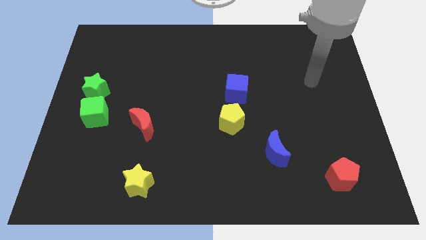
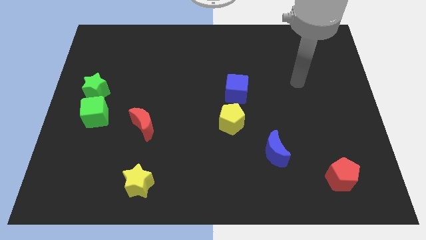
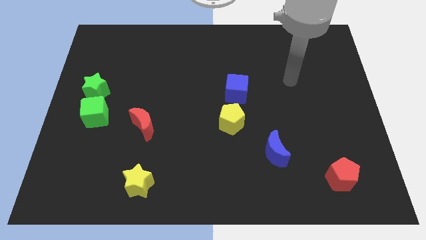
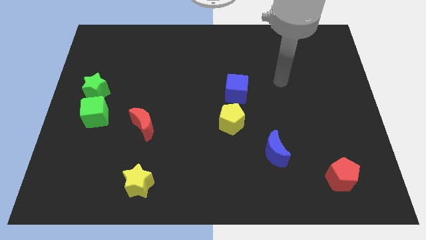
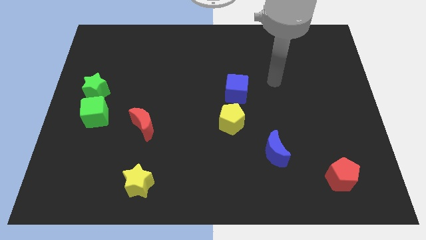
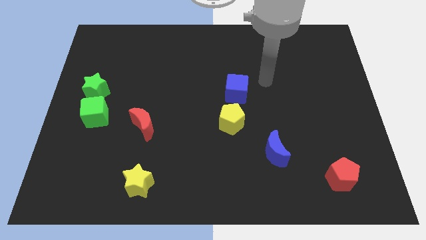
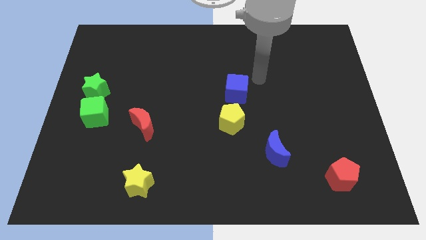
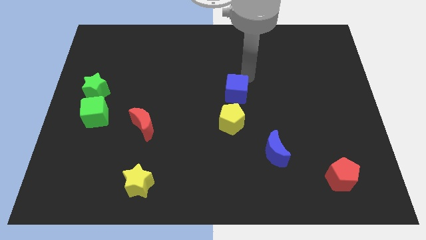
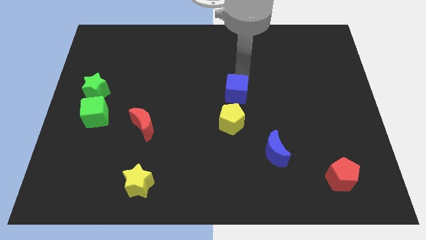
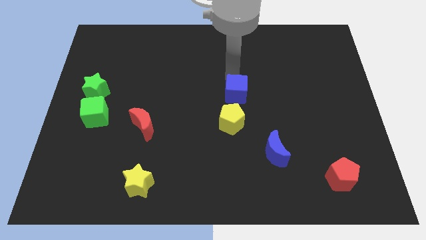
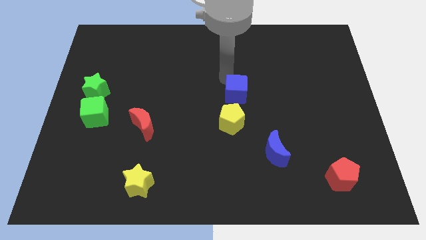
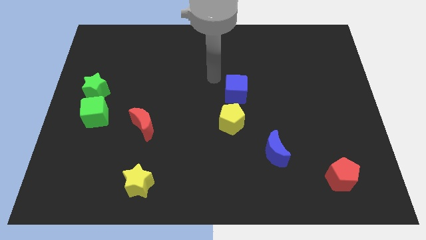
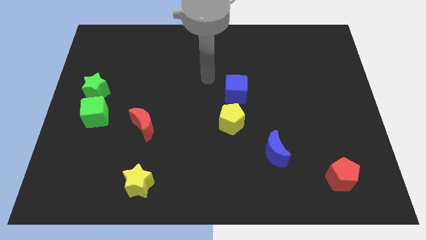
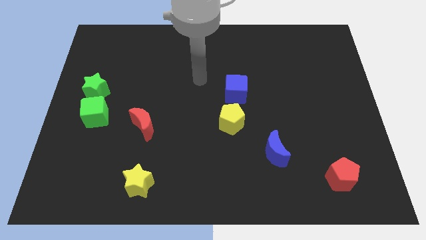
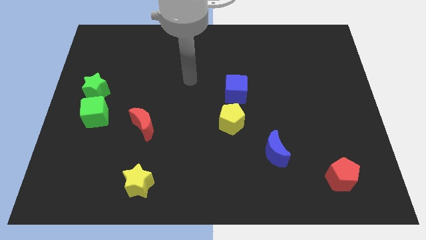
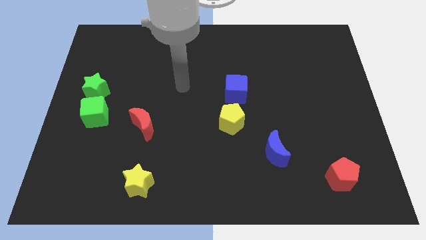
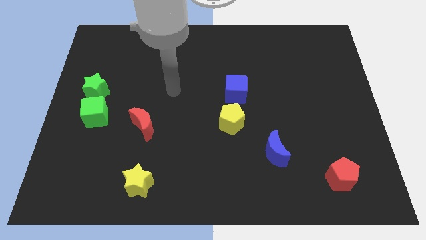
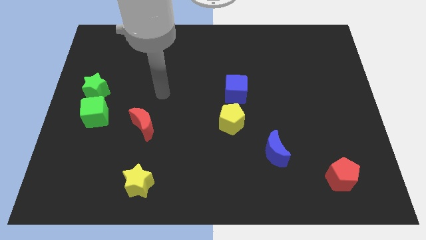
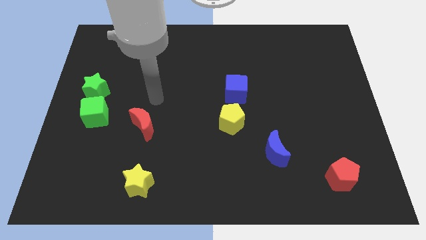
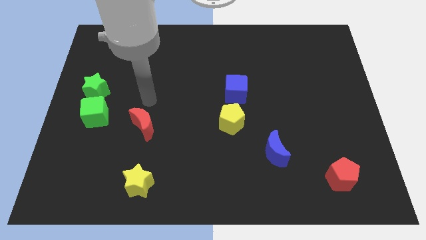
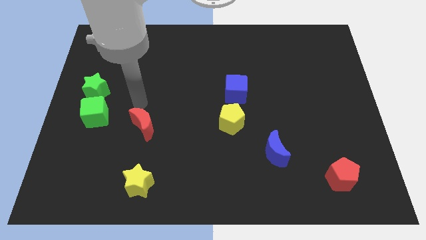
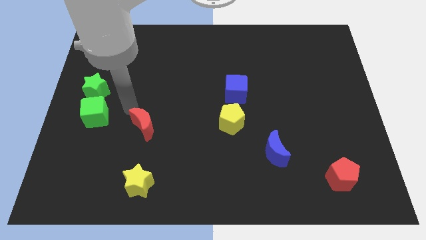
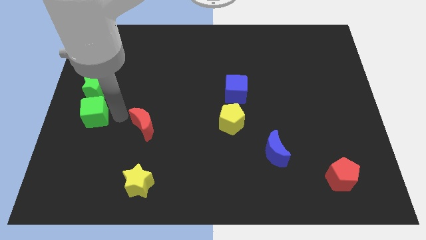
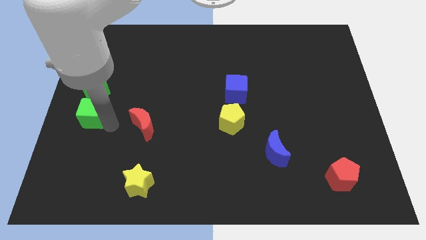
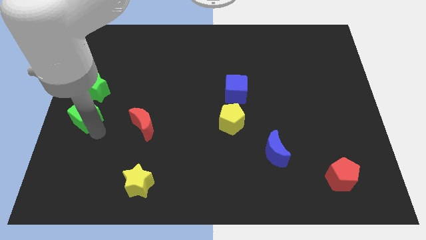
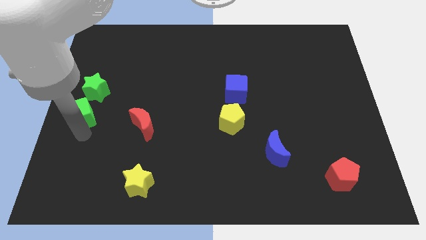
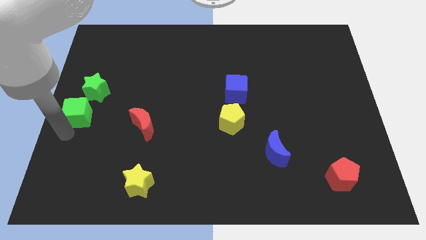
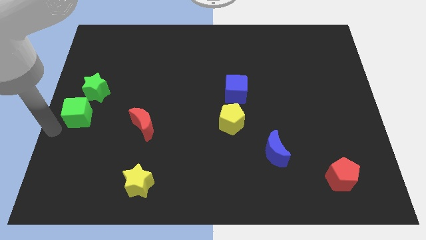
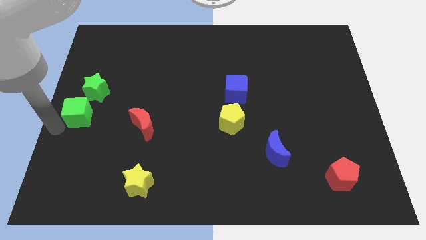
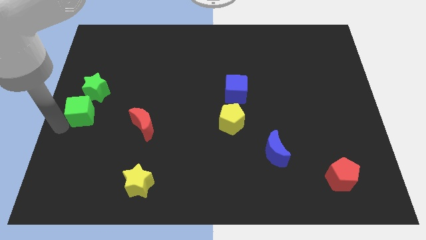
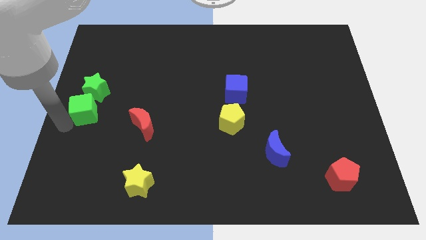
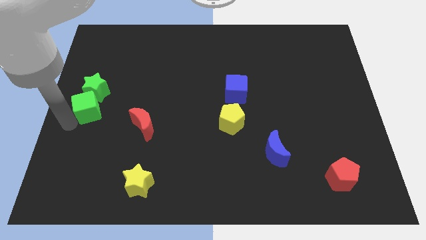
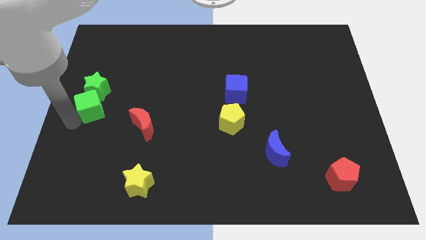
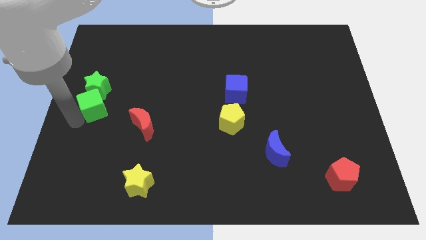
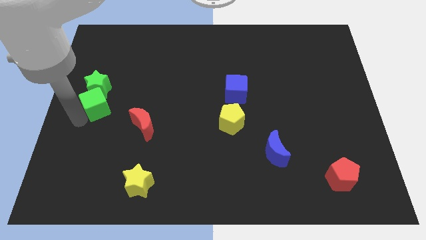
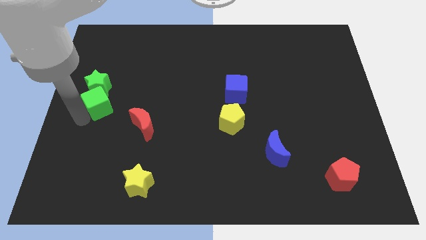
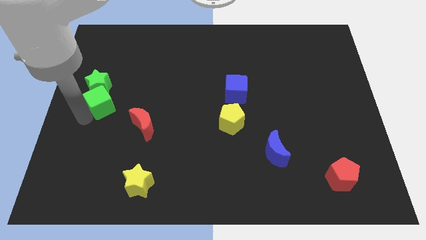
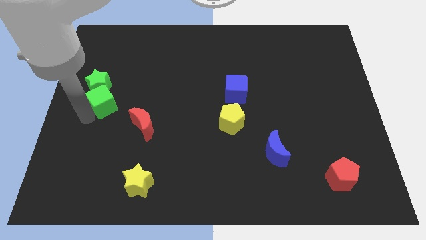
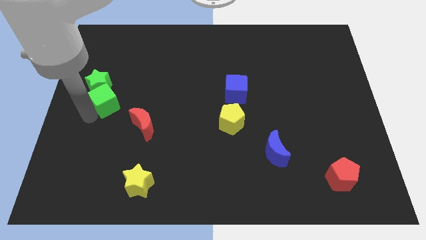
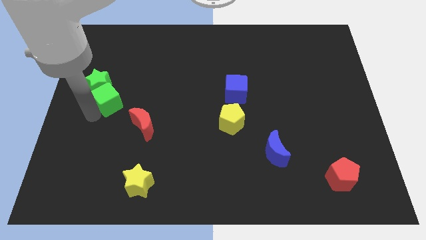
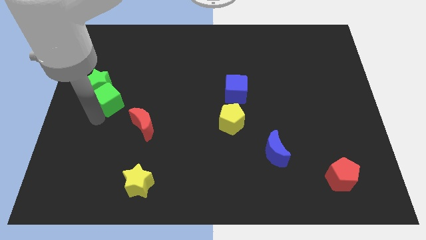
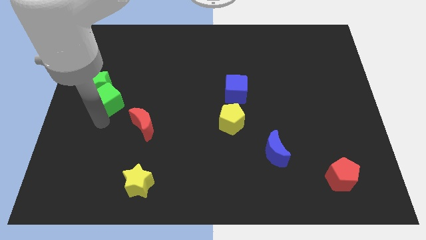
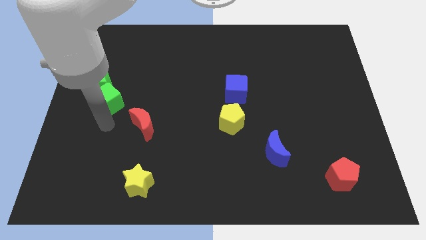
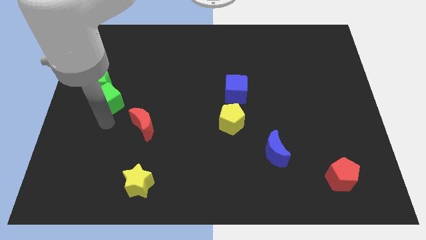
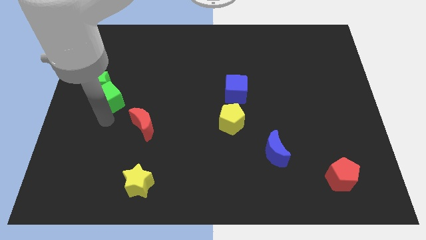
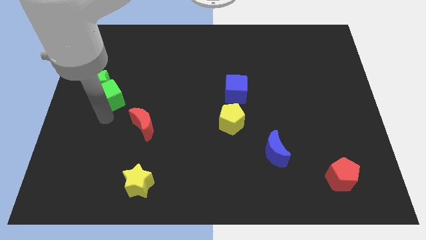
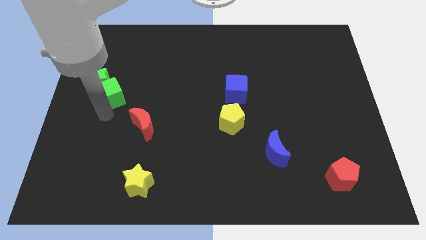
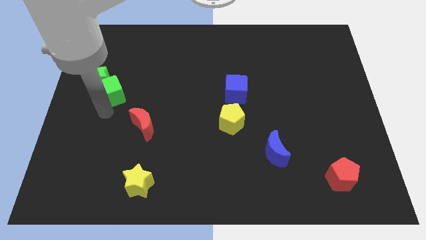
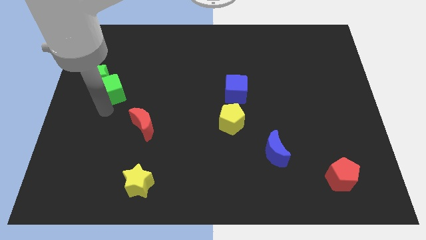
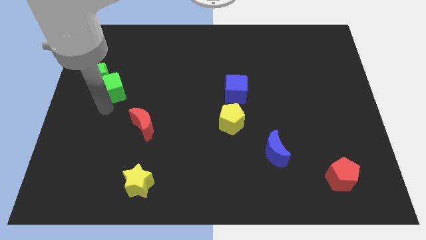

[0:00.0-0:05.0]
push the green cube up slightly

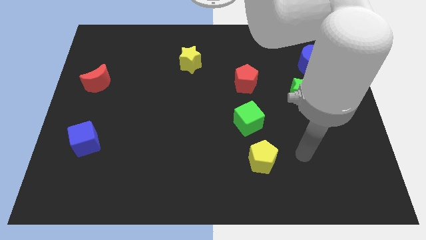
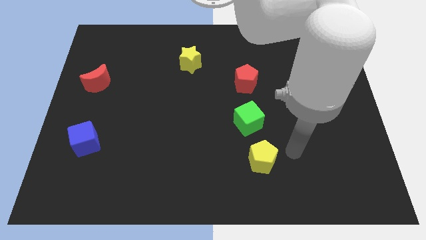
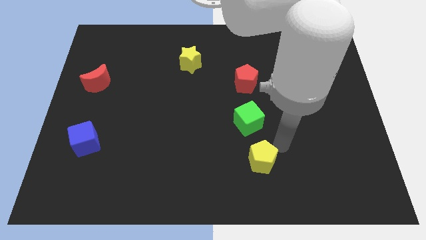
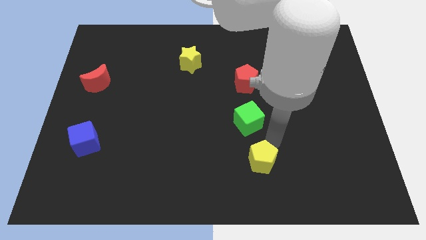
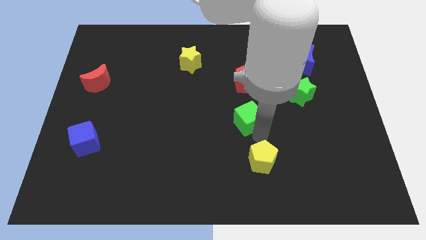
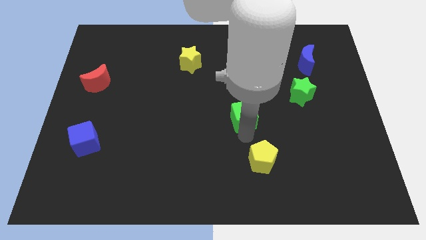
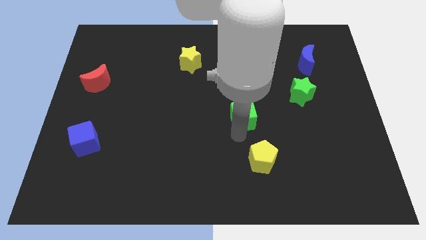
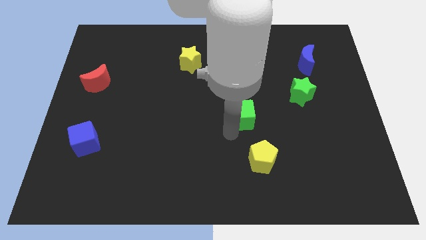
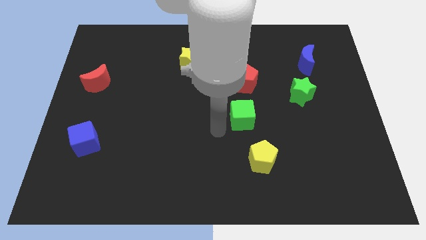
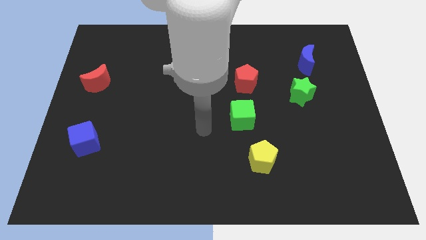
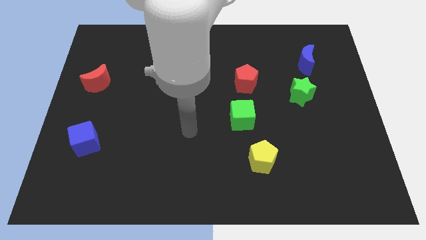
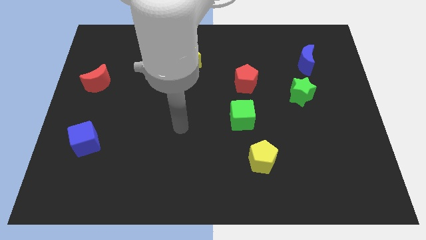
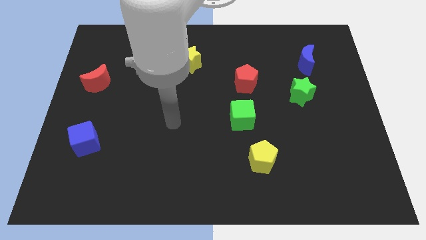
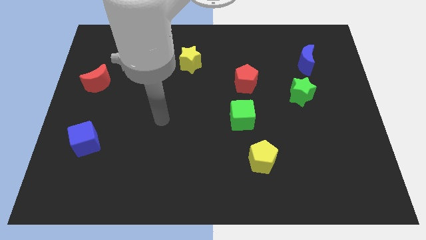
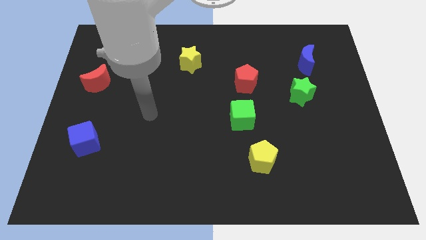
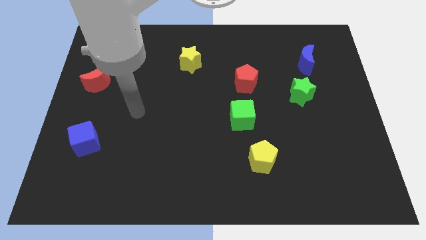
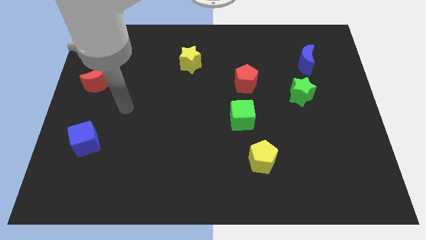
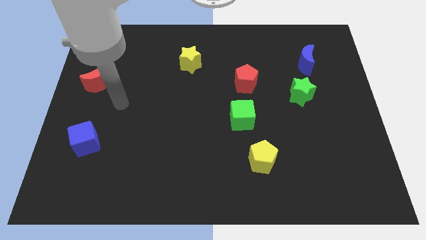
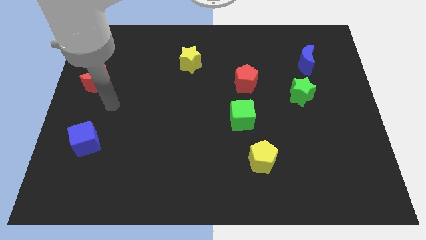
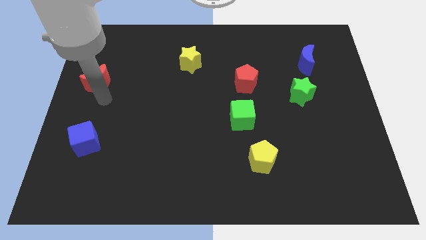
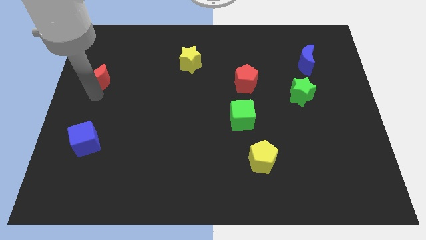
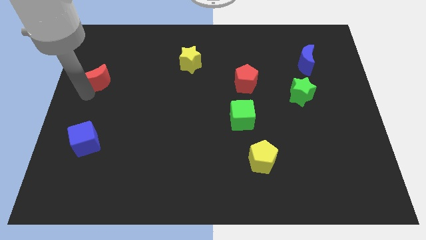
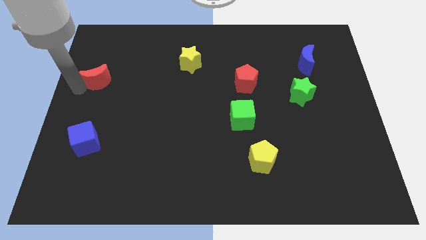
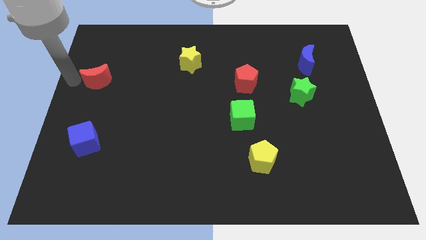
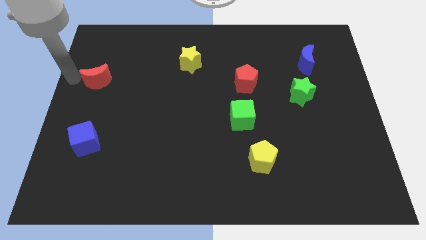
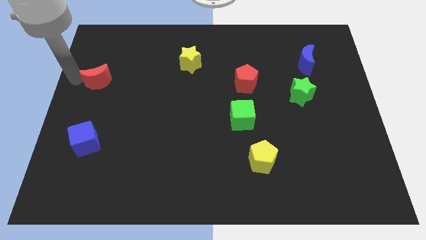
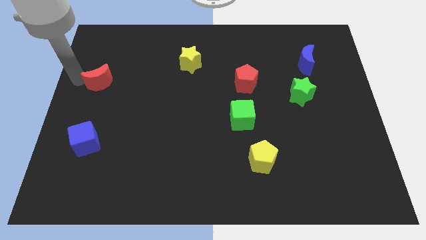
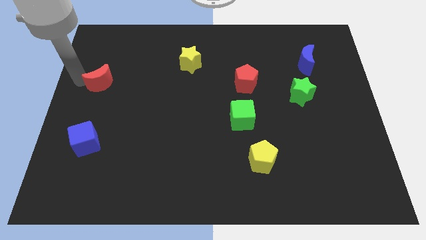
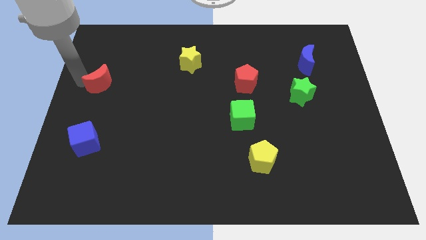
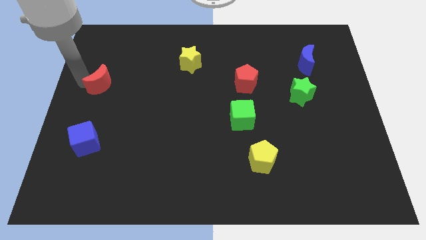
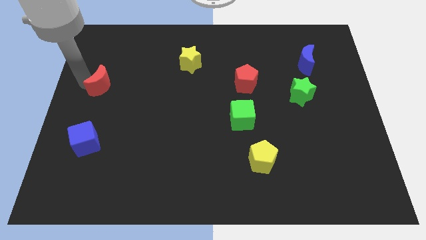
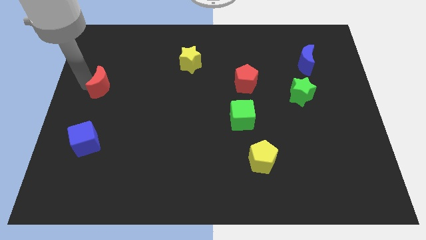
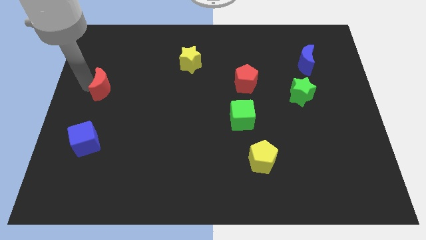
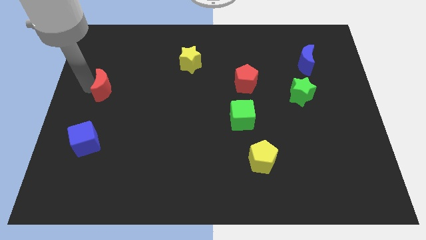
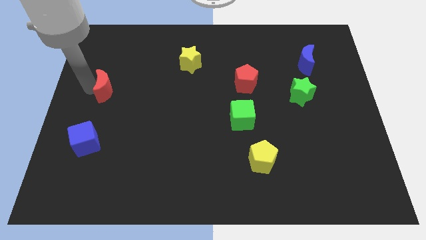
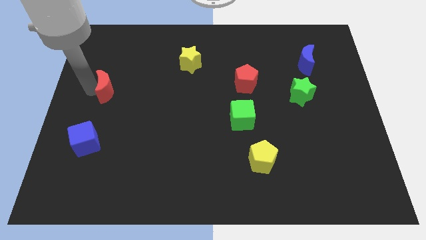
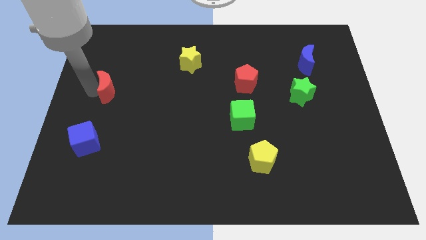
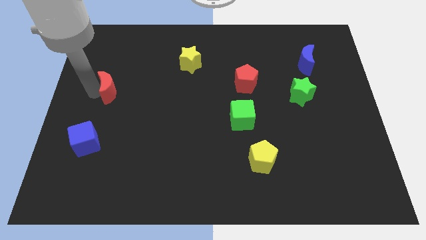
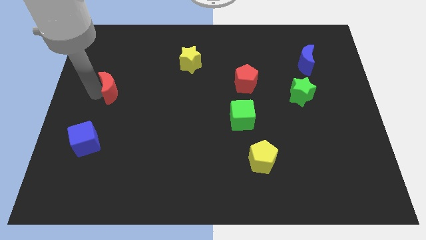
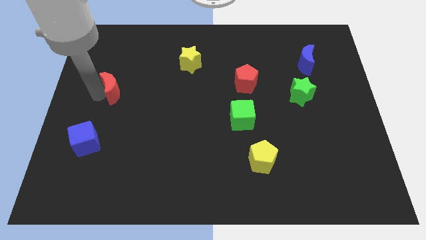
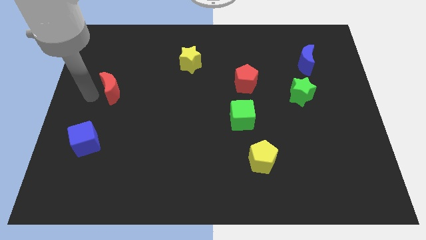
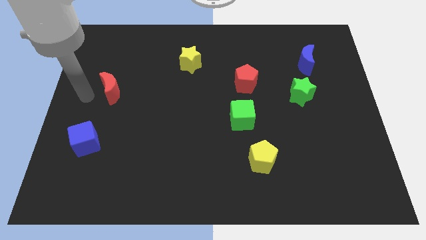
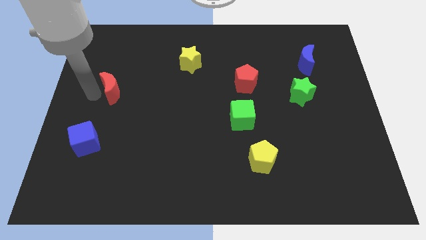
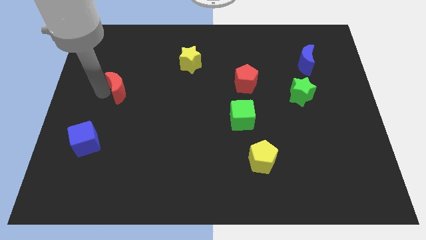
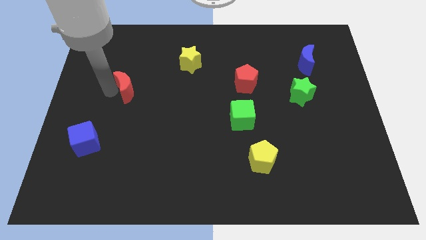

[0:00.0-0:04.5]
push the red moon a little bit to the right
